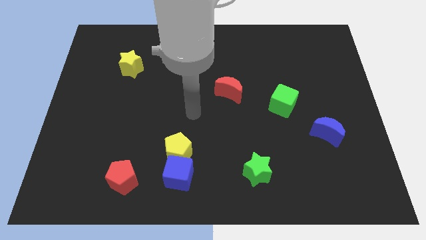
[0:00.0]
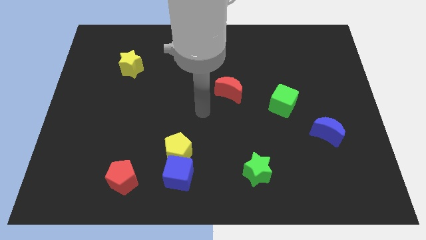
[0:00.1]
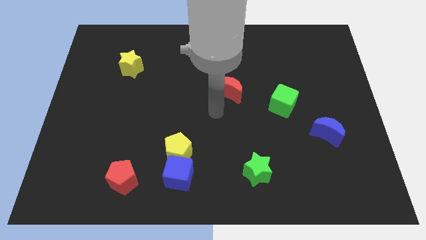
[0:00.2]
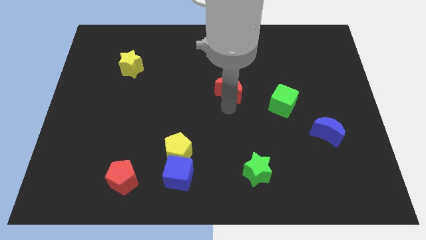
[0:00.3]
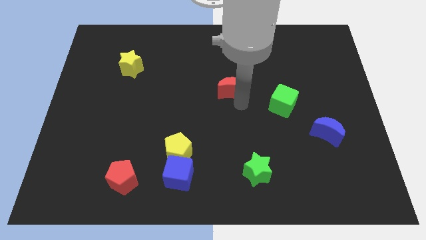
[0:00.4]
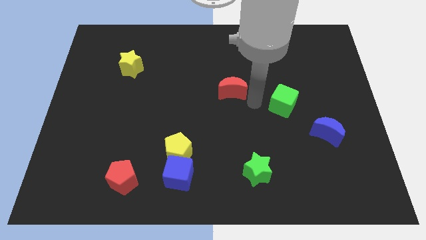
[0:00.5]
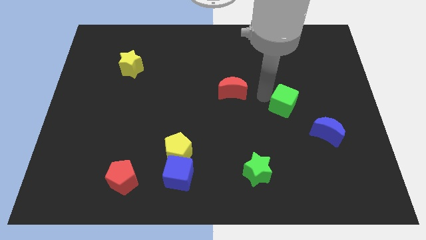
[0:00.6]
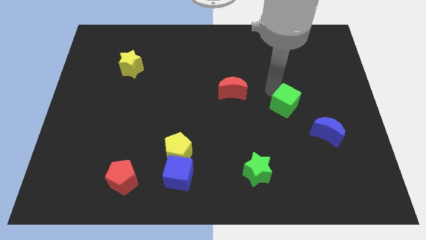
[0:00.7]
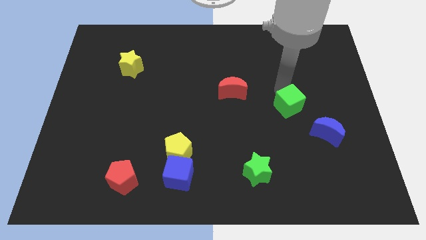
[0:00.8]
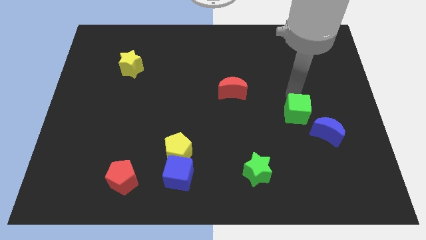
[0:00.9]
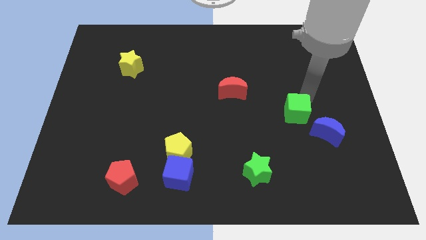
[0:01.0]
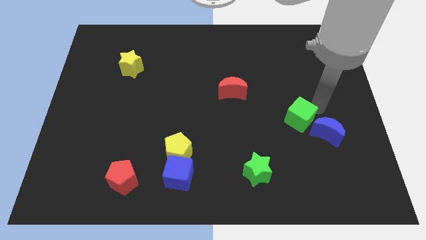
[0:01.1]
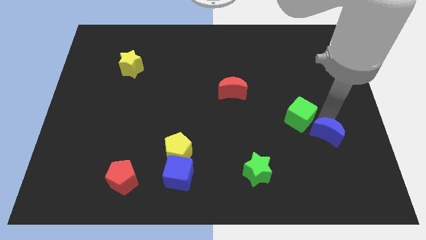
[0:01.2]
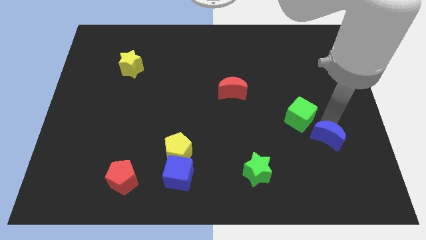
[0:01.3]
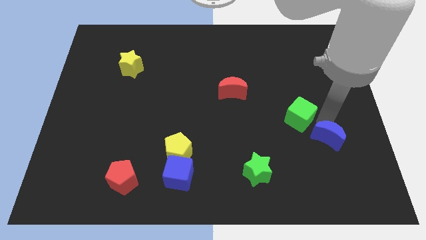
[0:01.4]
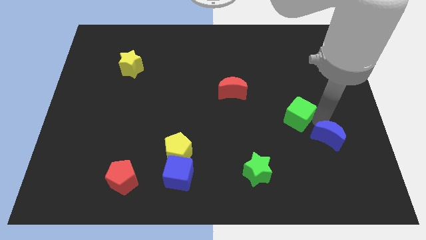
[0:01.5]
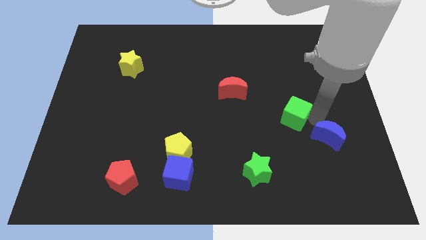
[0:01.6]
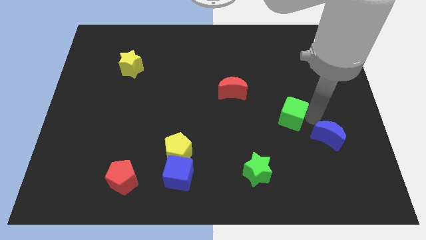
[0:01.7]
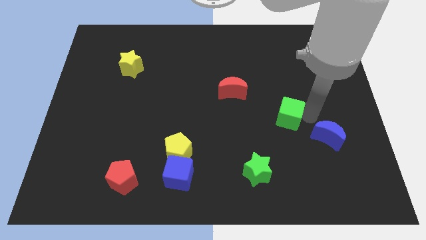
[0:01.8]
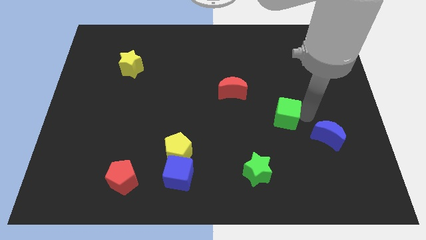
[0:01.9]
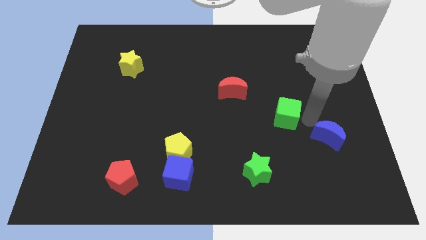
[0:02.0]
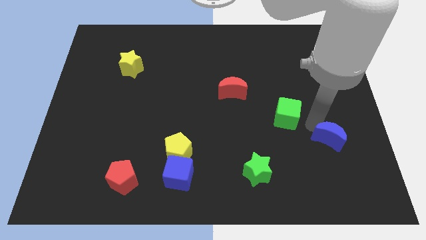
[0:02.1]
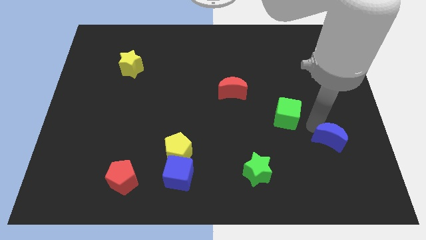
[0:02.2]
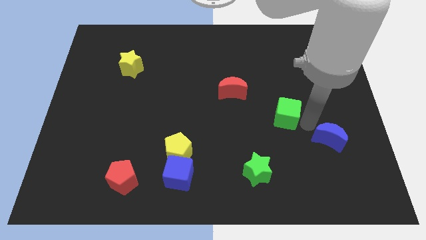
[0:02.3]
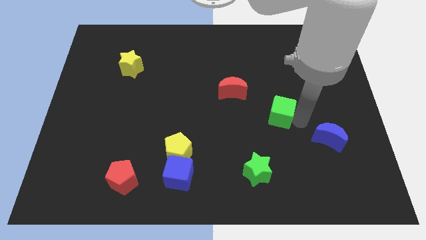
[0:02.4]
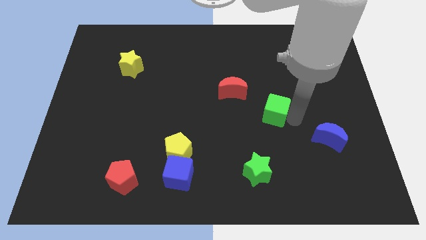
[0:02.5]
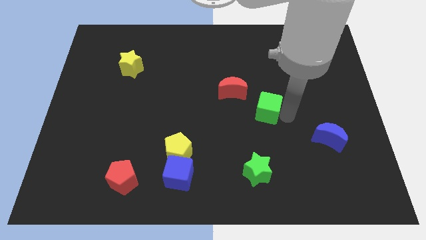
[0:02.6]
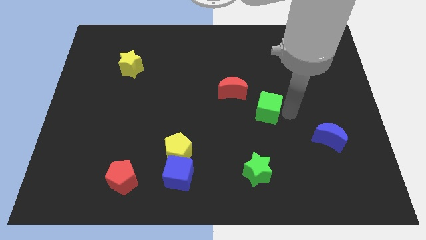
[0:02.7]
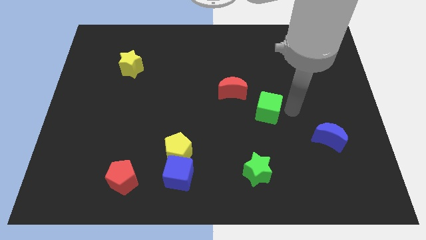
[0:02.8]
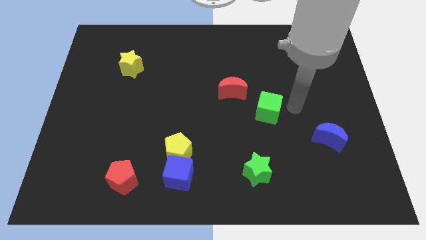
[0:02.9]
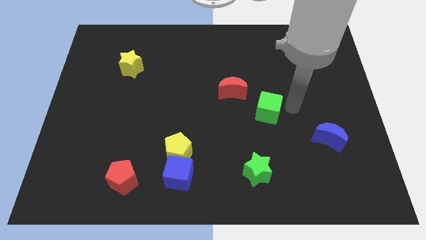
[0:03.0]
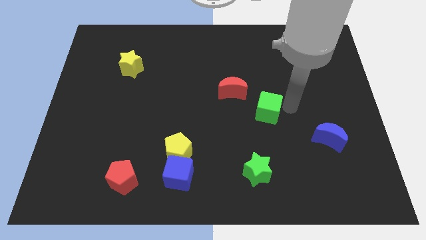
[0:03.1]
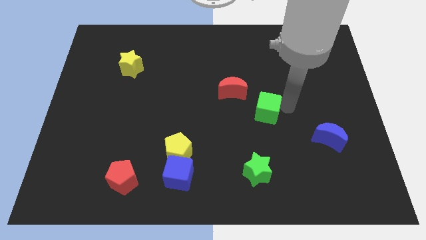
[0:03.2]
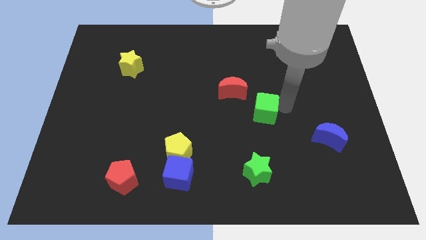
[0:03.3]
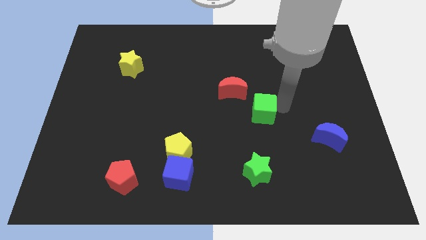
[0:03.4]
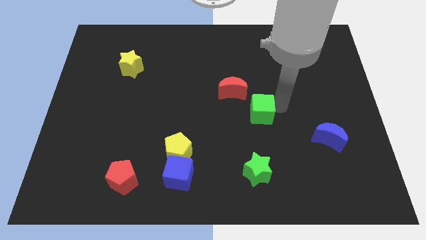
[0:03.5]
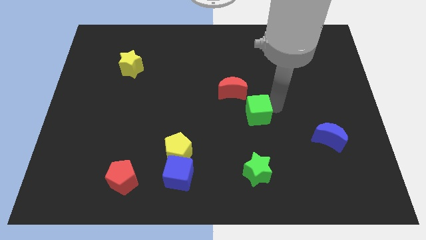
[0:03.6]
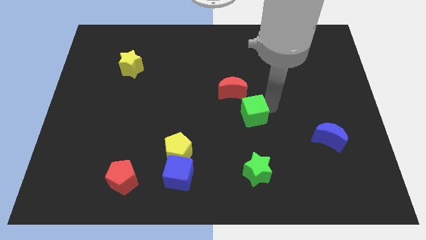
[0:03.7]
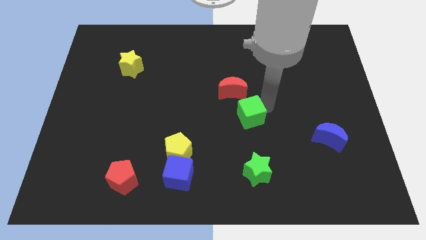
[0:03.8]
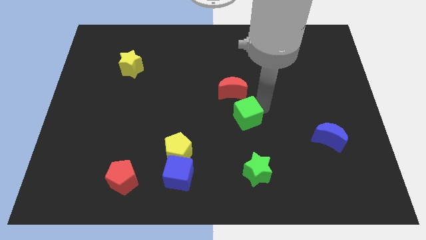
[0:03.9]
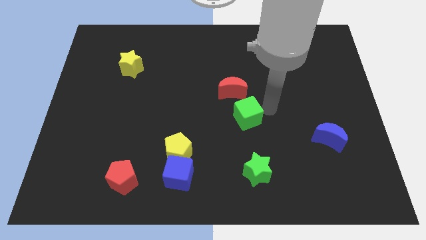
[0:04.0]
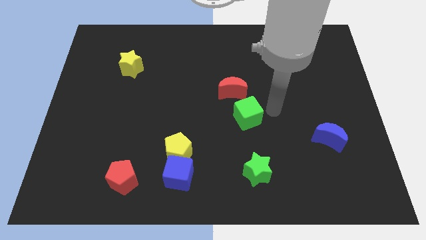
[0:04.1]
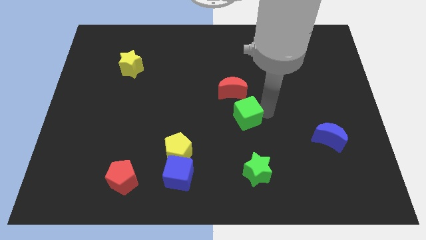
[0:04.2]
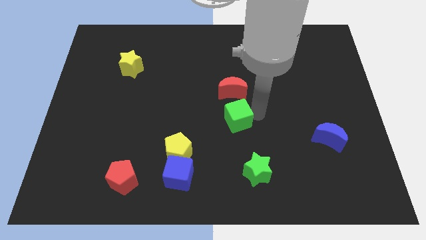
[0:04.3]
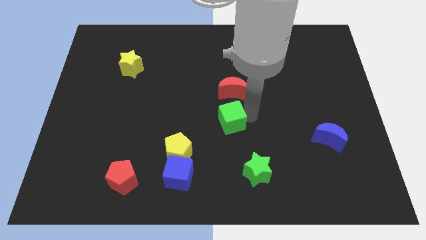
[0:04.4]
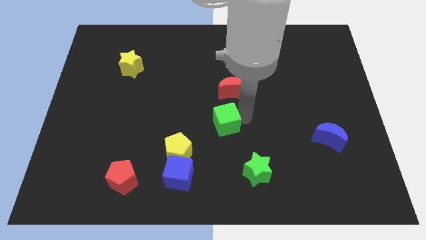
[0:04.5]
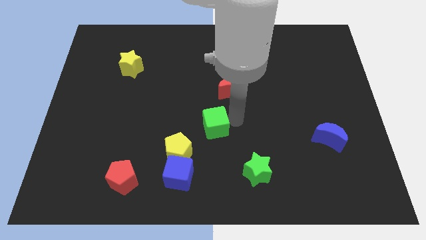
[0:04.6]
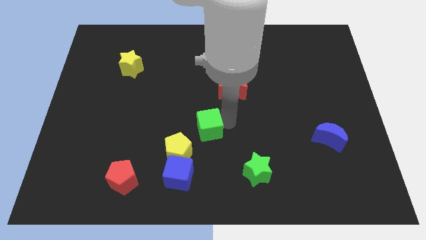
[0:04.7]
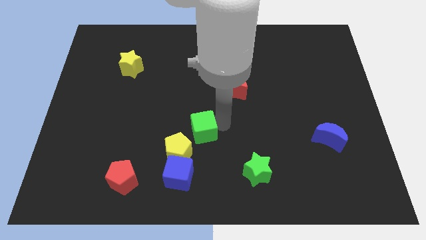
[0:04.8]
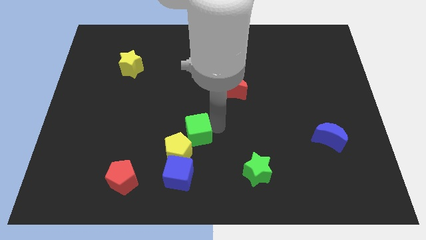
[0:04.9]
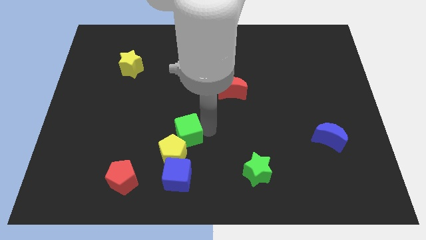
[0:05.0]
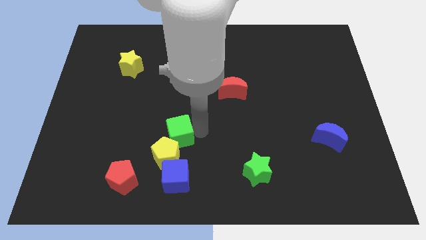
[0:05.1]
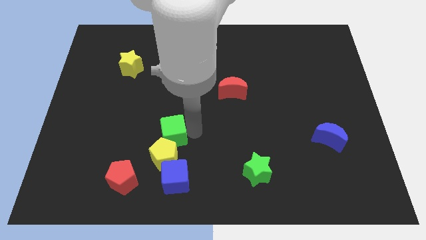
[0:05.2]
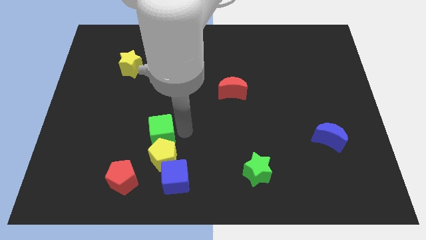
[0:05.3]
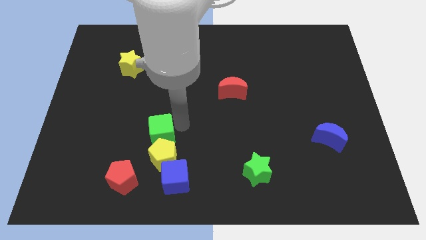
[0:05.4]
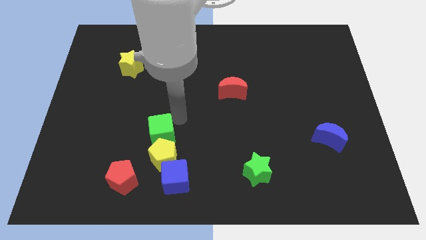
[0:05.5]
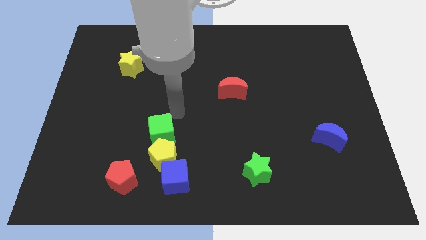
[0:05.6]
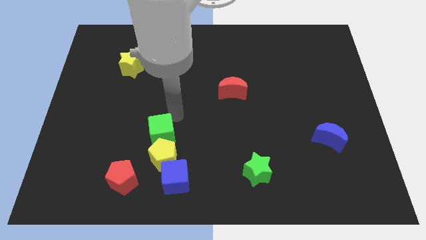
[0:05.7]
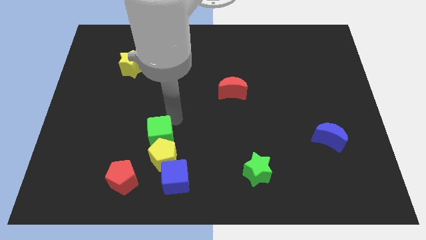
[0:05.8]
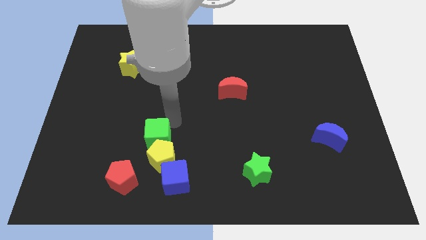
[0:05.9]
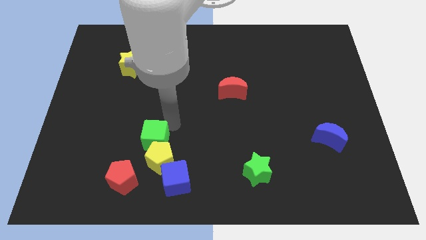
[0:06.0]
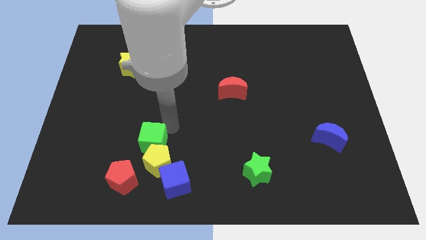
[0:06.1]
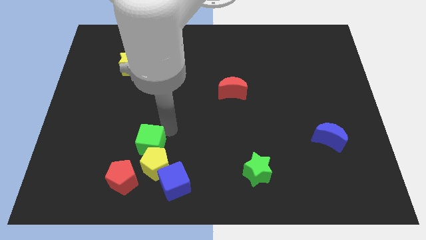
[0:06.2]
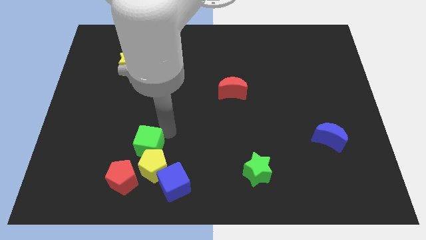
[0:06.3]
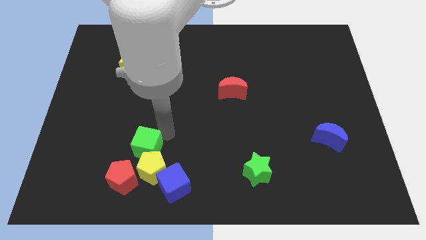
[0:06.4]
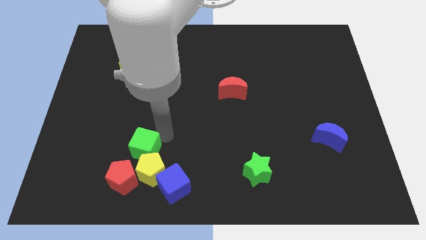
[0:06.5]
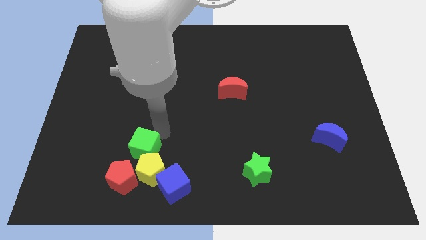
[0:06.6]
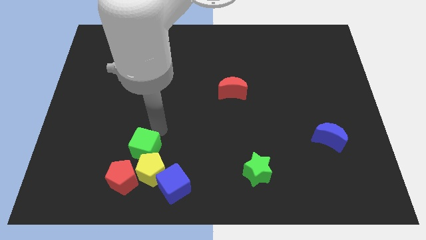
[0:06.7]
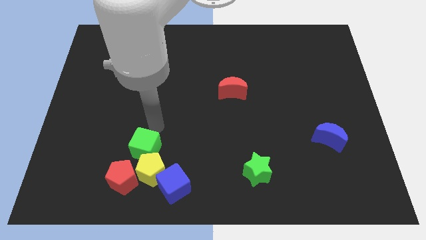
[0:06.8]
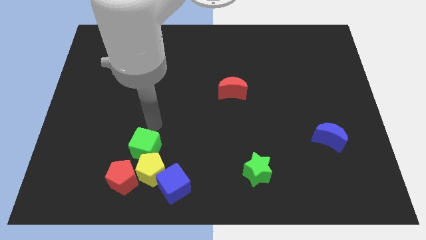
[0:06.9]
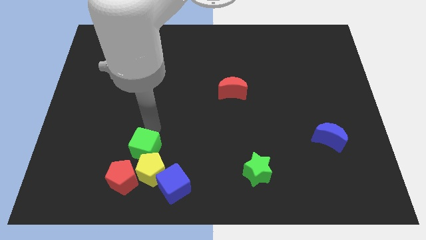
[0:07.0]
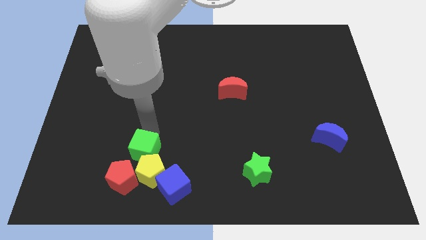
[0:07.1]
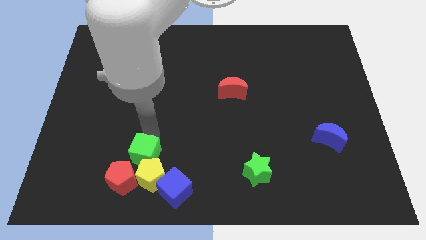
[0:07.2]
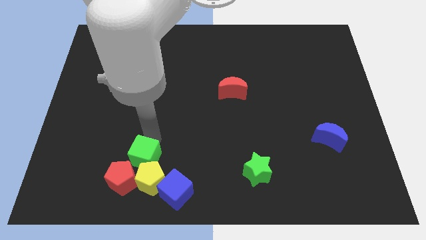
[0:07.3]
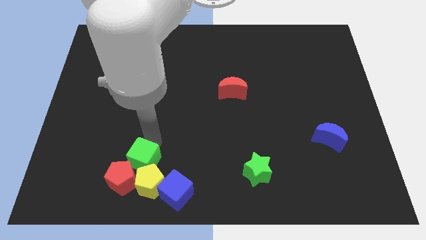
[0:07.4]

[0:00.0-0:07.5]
slide the green cube to the red pentagon
